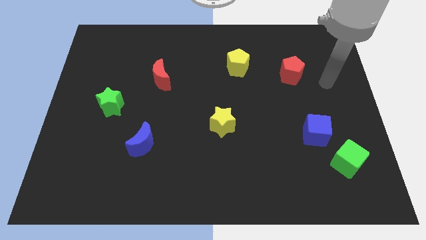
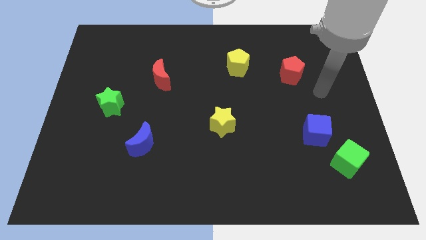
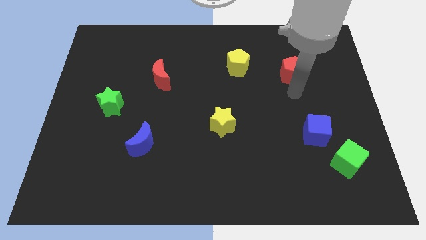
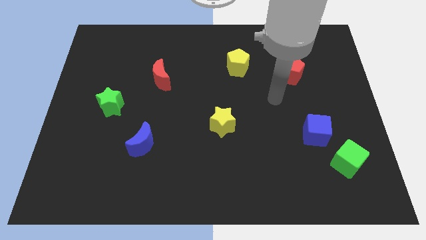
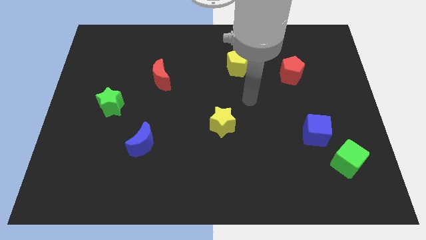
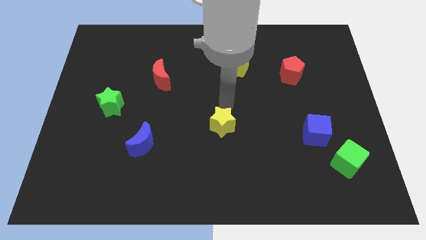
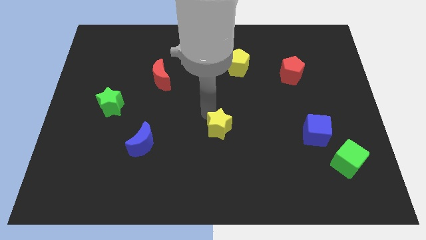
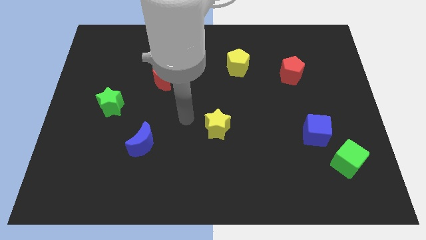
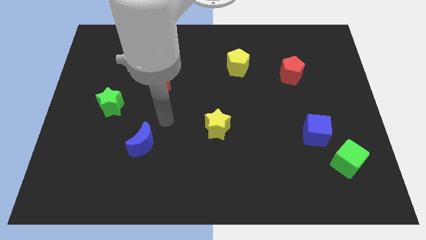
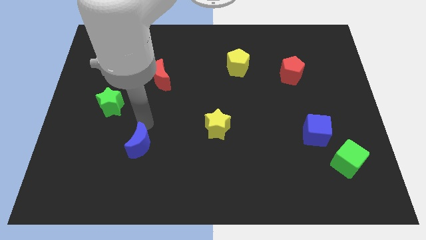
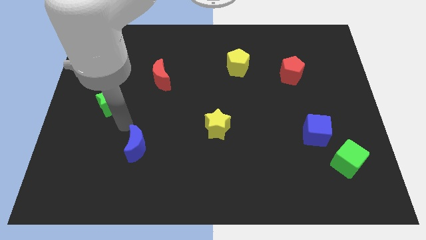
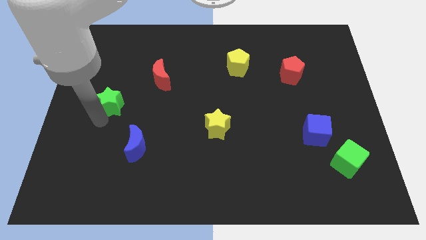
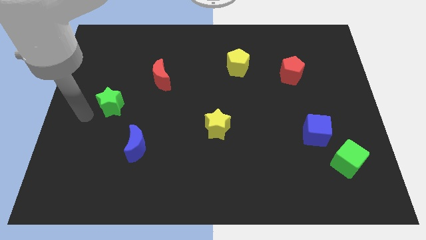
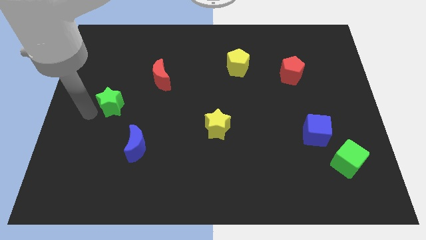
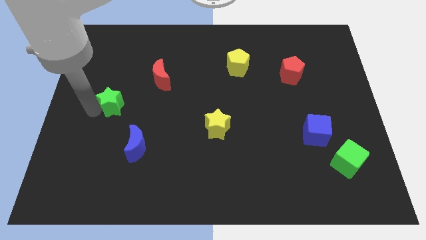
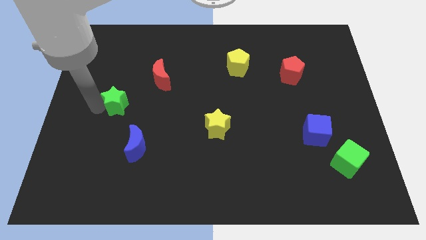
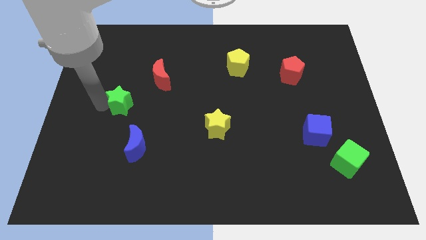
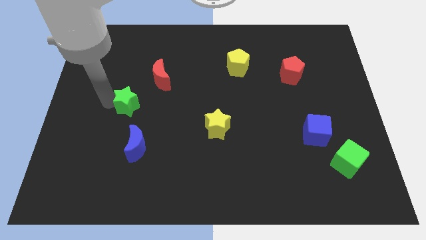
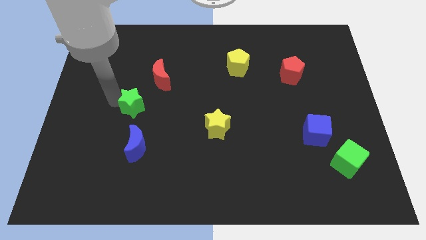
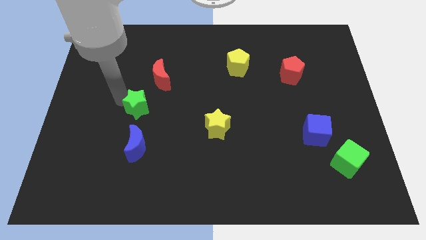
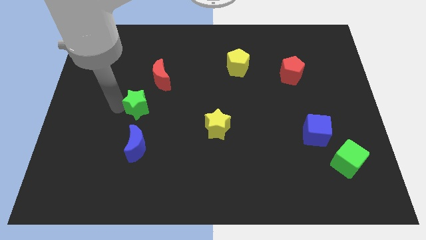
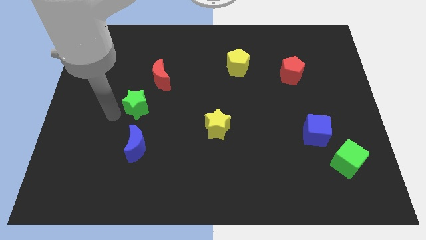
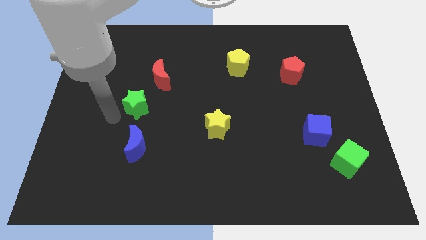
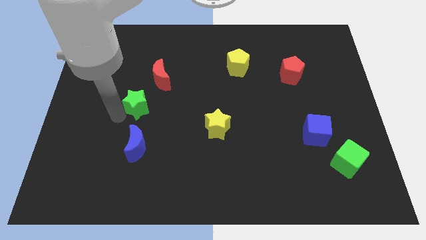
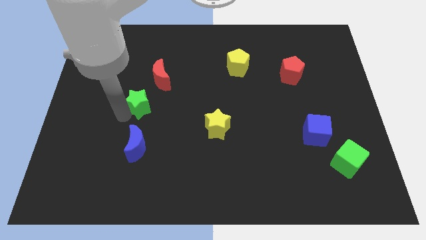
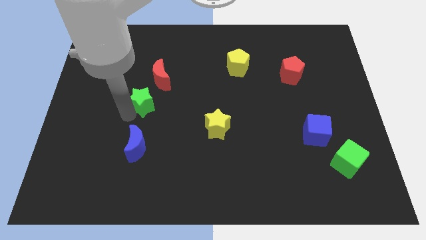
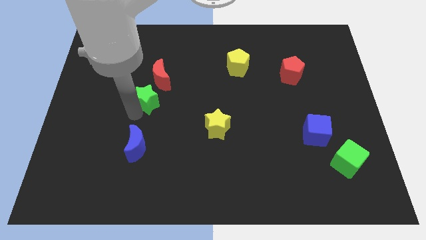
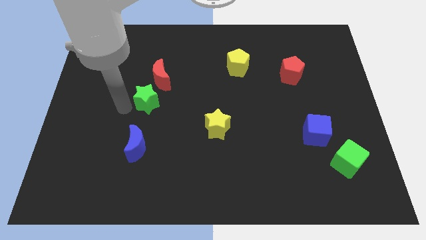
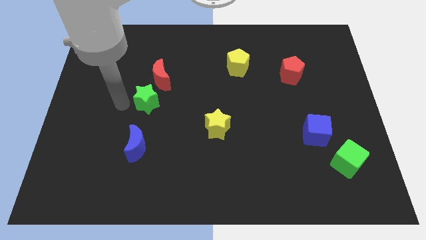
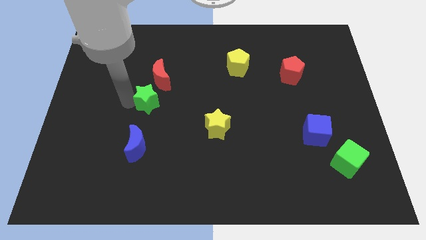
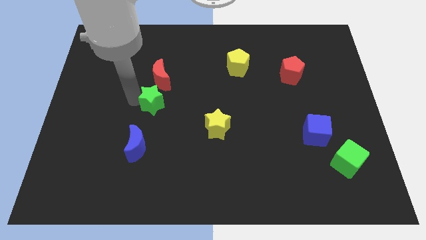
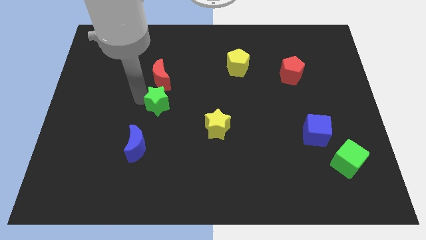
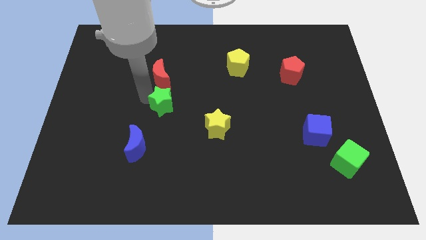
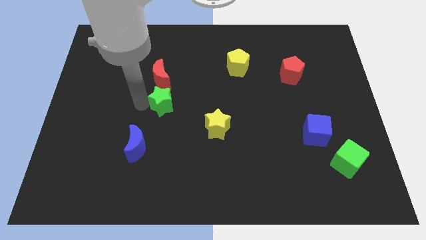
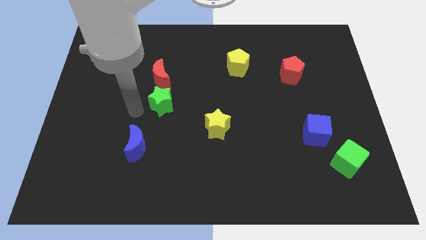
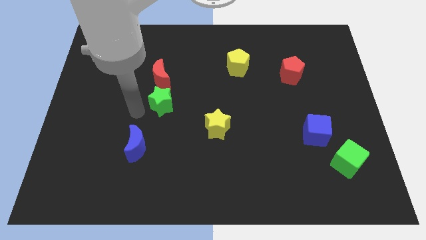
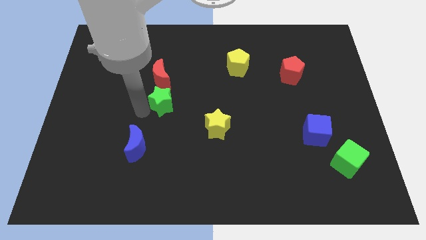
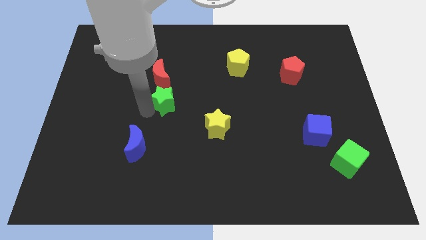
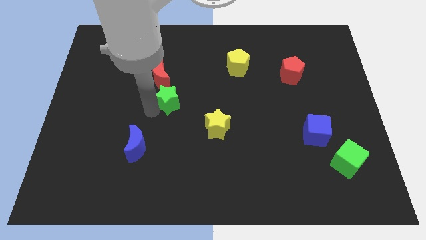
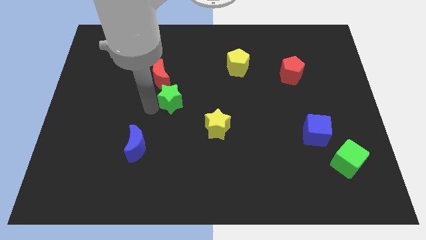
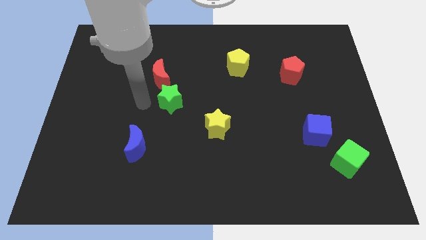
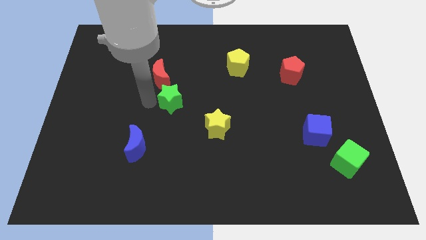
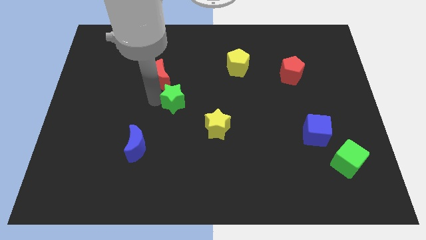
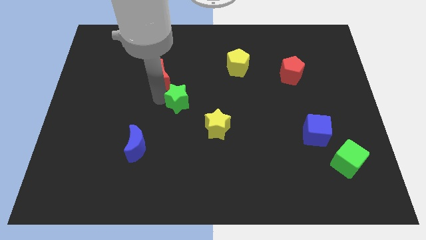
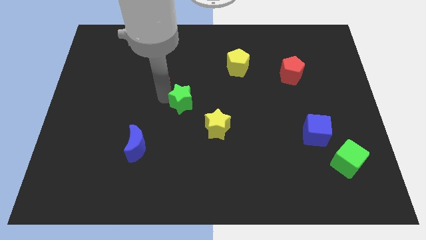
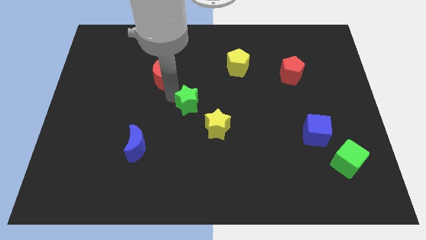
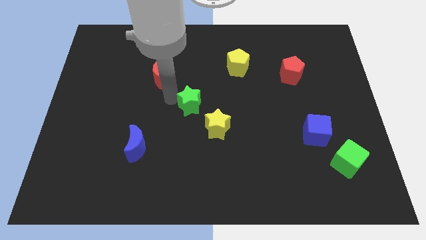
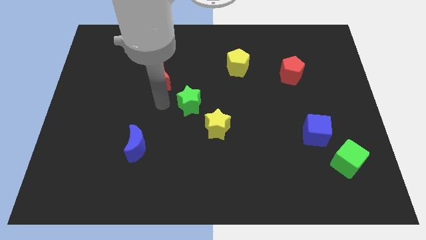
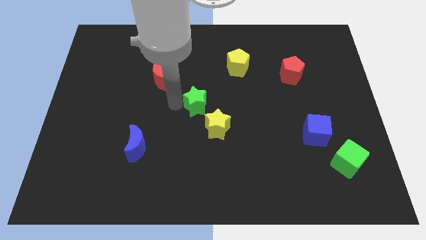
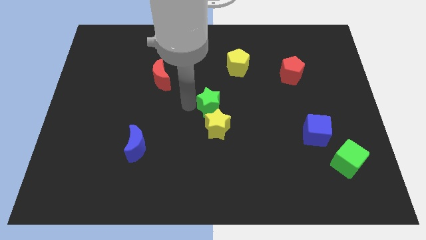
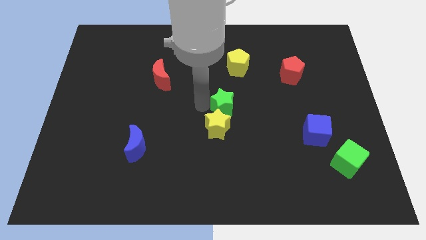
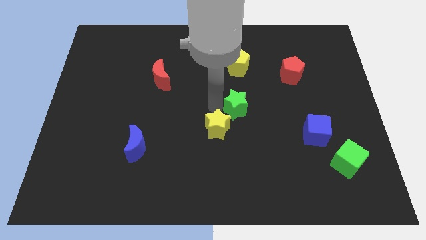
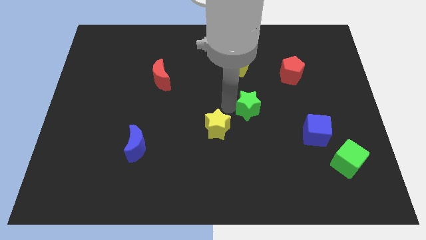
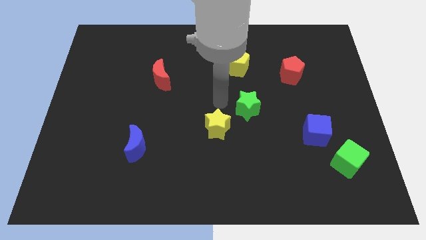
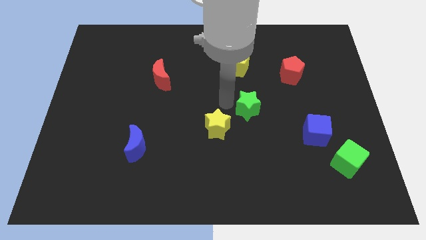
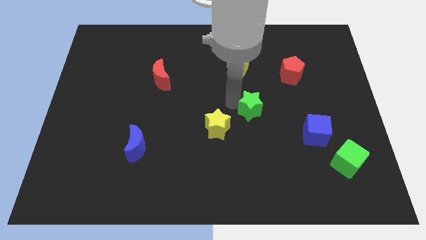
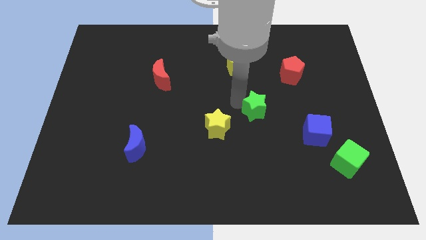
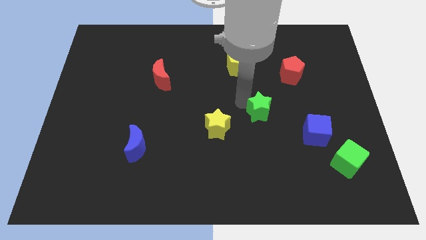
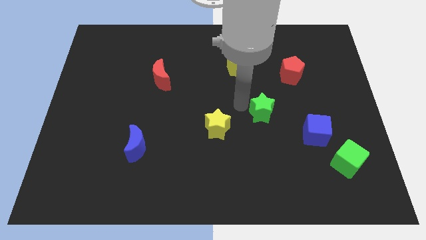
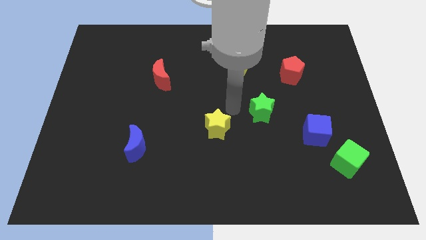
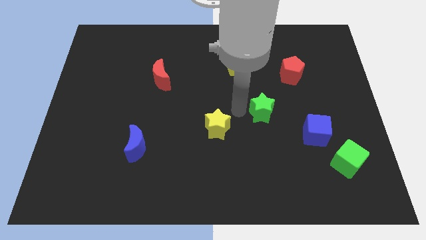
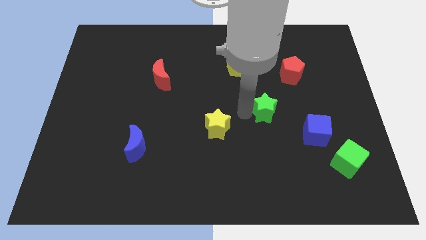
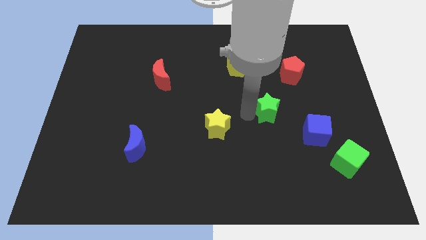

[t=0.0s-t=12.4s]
move the green star diagonally up and to the left of the blue cube

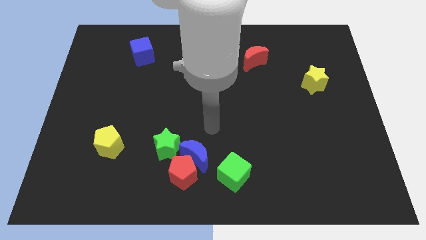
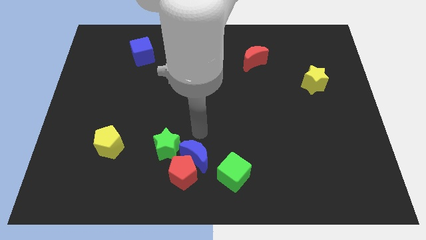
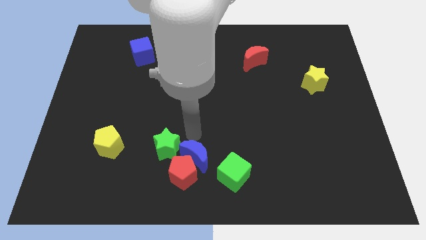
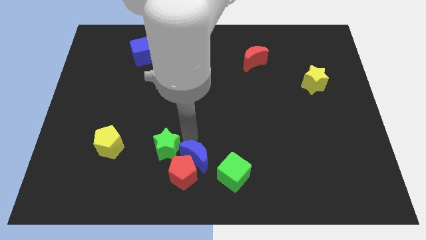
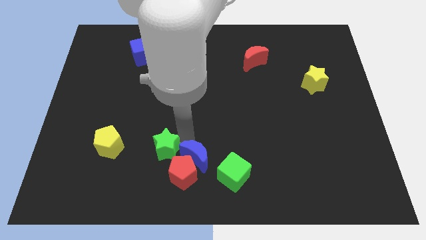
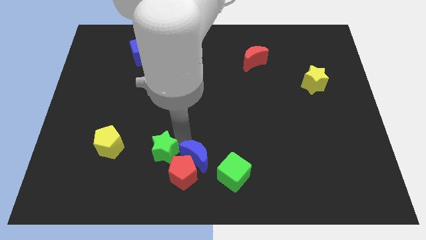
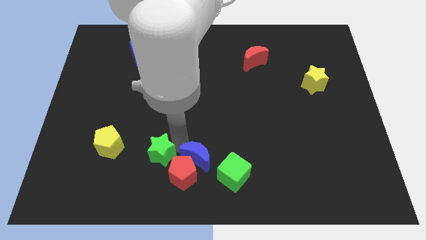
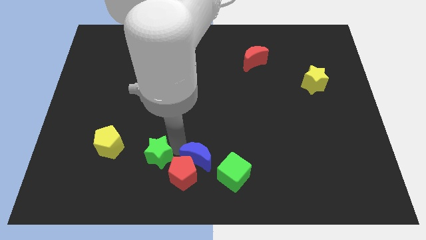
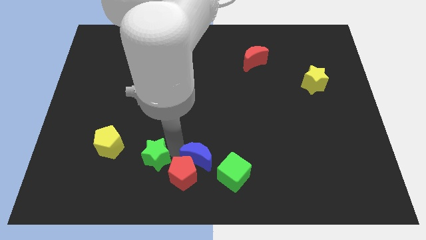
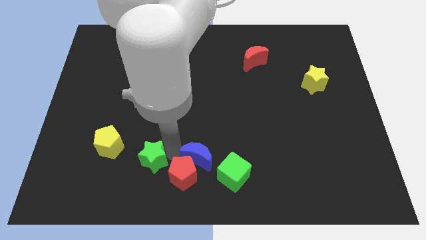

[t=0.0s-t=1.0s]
push the green star to the bottom right of the yellow pentagon
